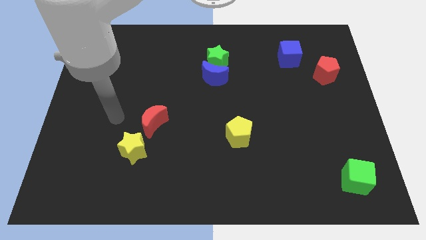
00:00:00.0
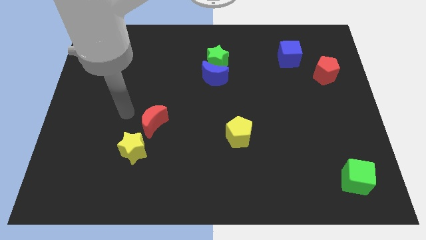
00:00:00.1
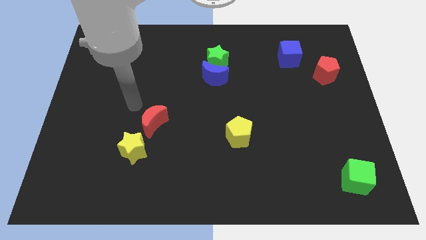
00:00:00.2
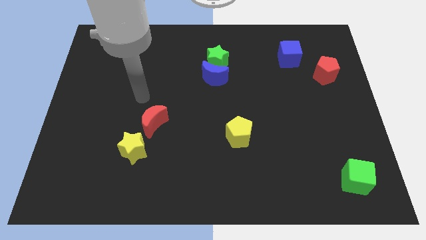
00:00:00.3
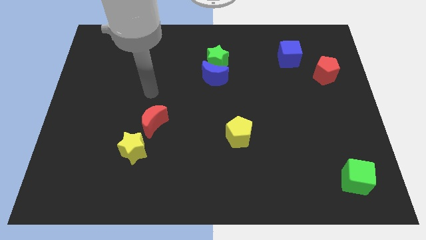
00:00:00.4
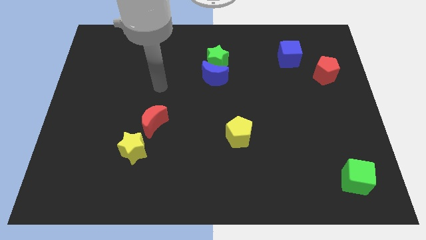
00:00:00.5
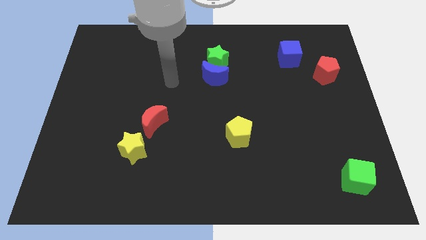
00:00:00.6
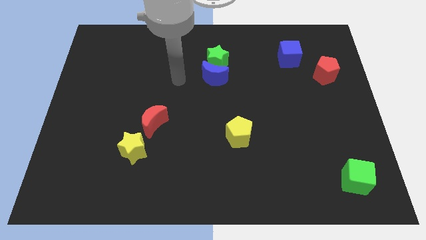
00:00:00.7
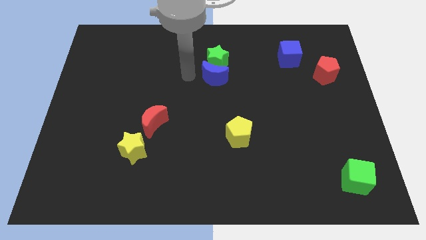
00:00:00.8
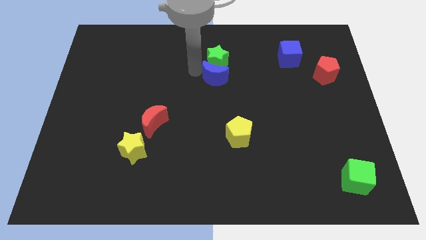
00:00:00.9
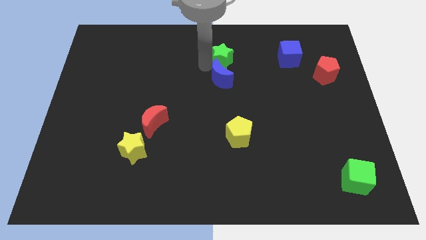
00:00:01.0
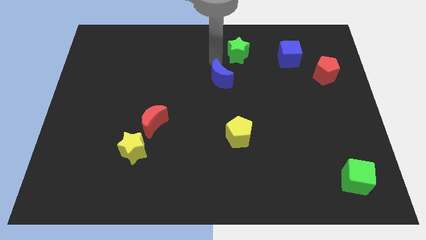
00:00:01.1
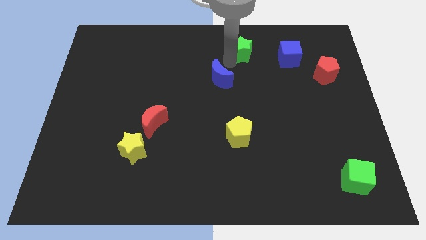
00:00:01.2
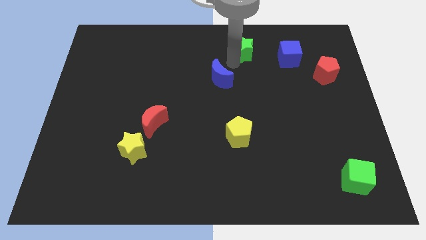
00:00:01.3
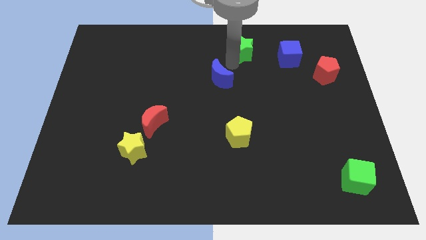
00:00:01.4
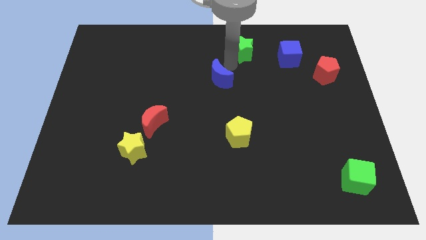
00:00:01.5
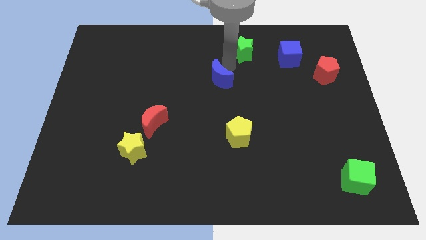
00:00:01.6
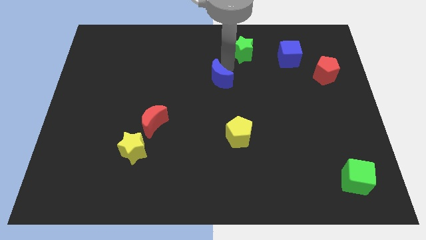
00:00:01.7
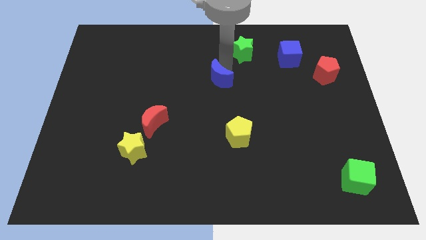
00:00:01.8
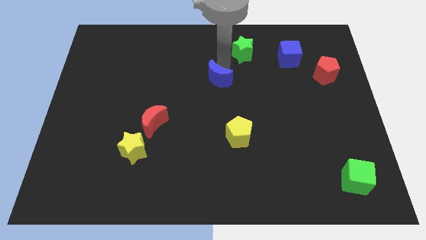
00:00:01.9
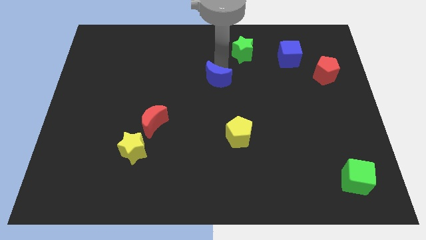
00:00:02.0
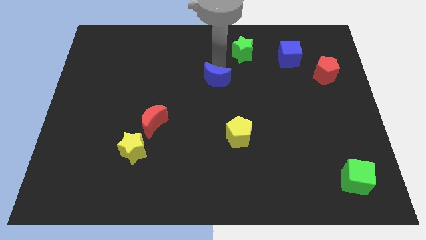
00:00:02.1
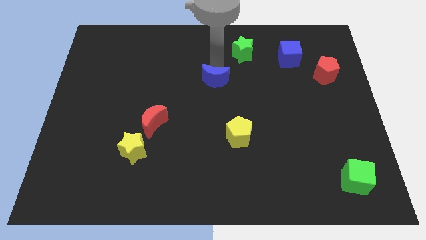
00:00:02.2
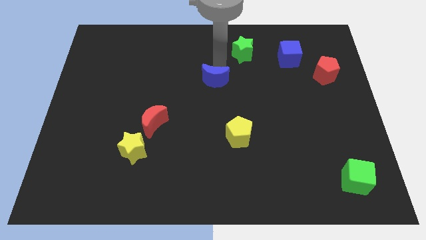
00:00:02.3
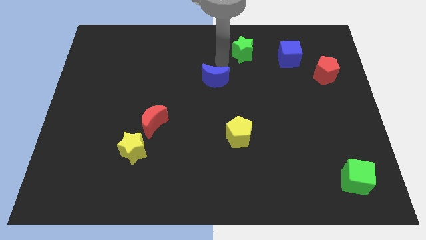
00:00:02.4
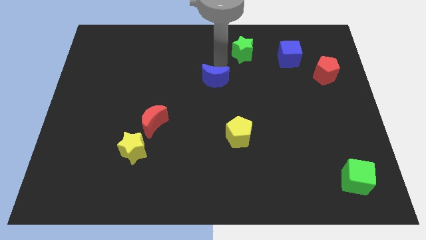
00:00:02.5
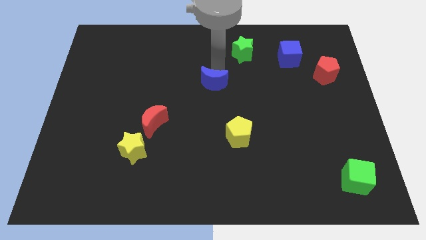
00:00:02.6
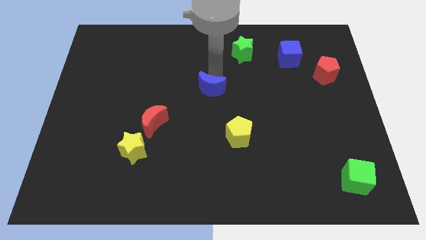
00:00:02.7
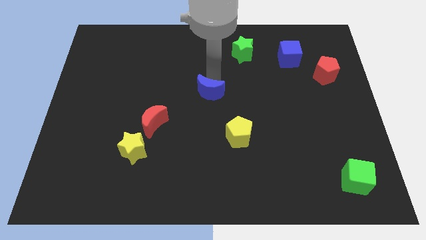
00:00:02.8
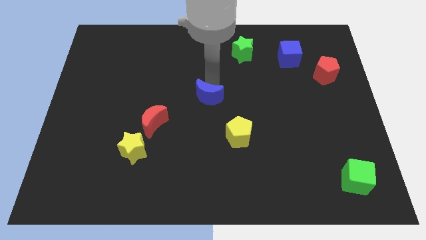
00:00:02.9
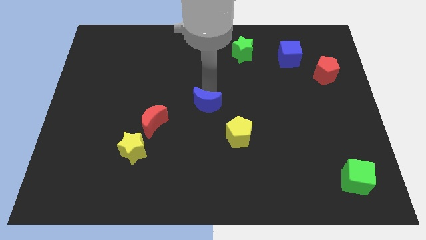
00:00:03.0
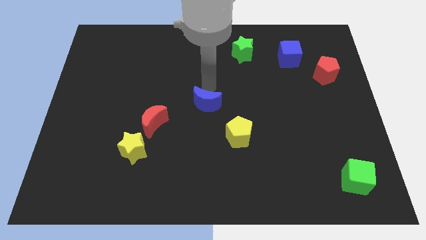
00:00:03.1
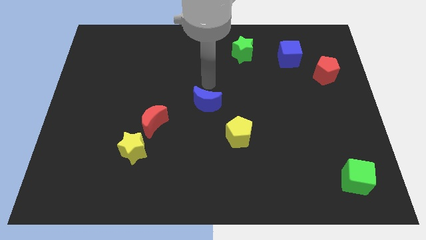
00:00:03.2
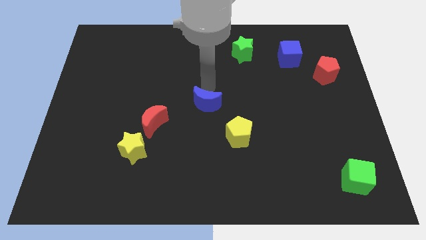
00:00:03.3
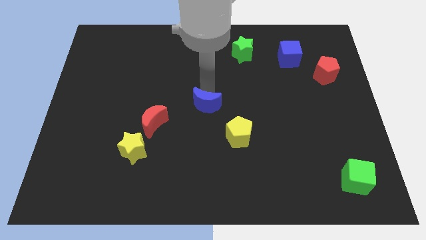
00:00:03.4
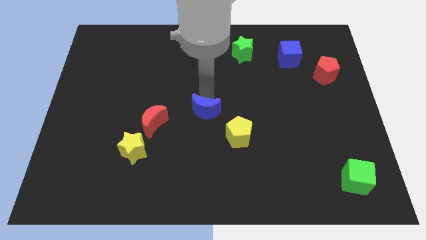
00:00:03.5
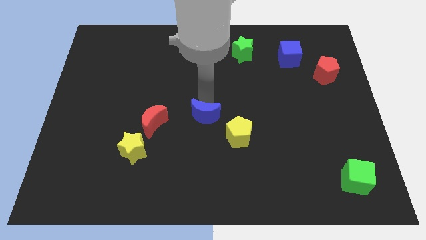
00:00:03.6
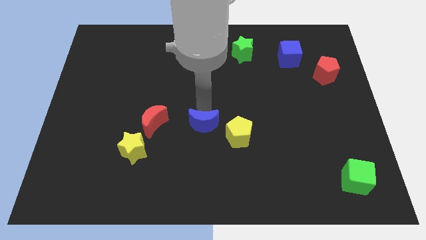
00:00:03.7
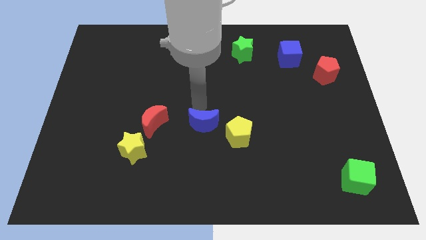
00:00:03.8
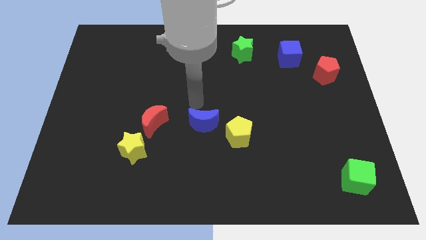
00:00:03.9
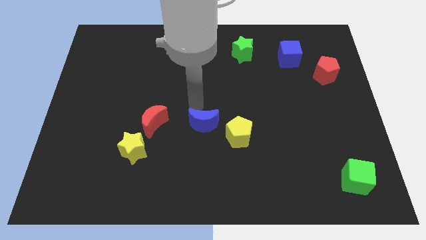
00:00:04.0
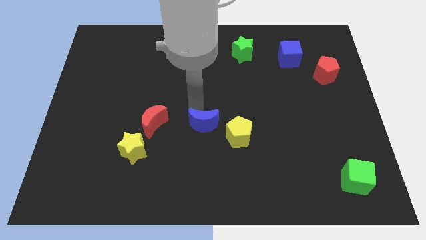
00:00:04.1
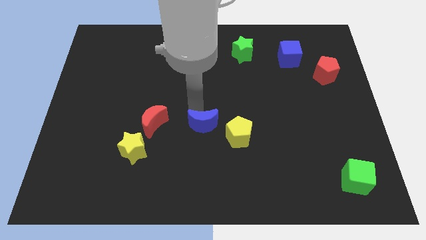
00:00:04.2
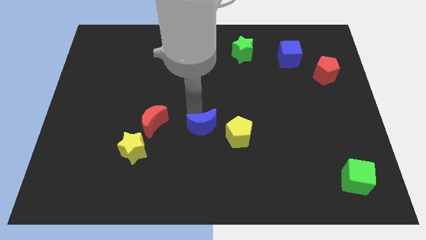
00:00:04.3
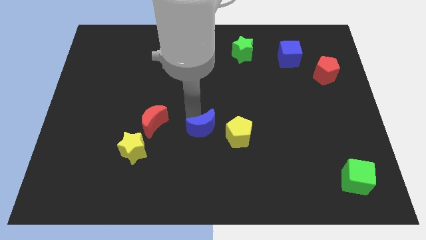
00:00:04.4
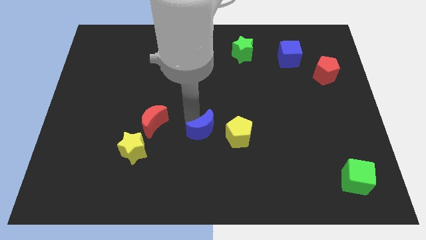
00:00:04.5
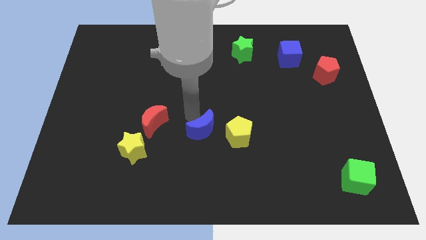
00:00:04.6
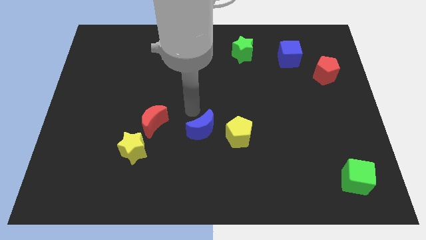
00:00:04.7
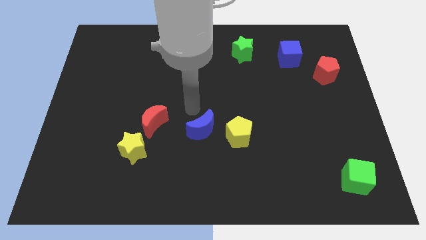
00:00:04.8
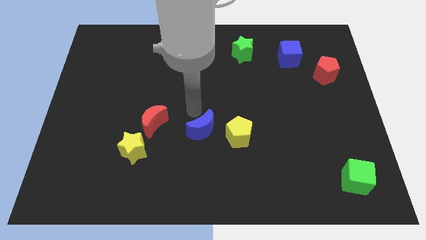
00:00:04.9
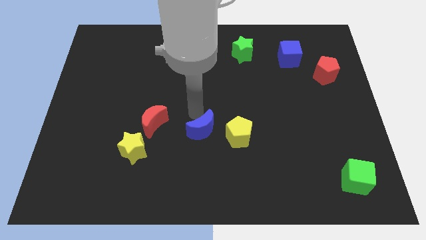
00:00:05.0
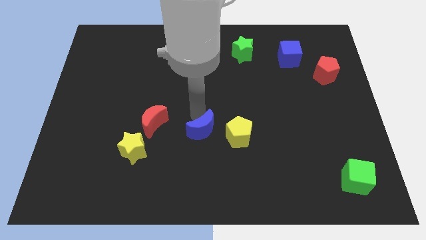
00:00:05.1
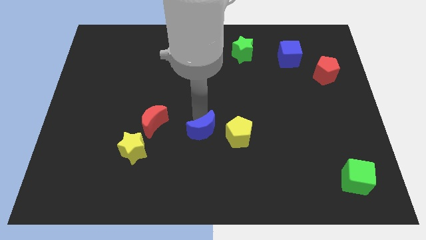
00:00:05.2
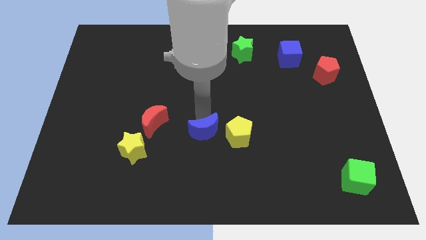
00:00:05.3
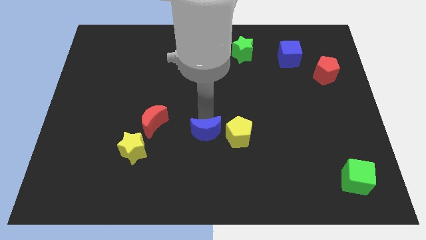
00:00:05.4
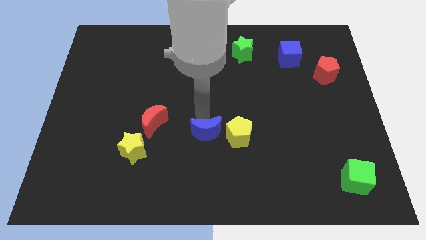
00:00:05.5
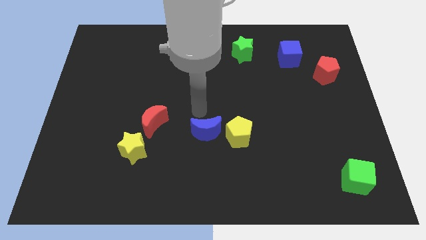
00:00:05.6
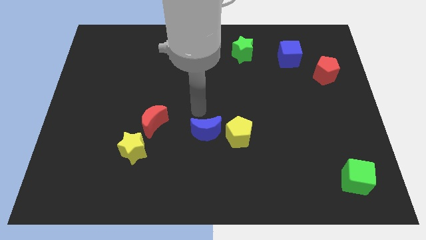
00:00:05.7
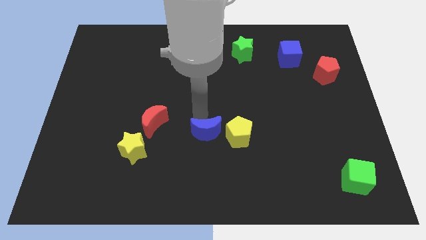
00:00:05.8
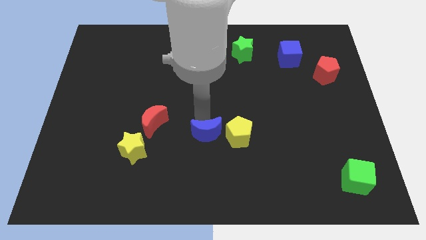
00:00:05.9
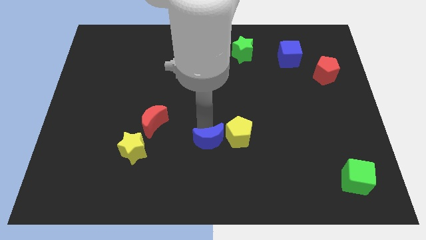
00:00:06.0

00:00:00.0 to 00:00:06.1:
move the blue moon diagonally down and to the left of the yellow pentagon

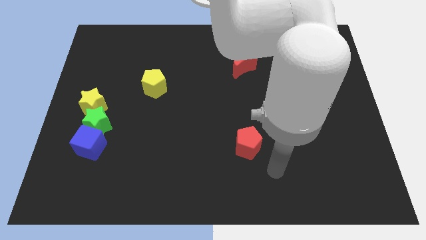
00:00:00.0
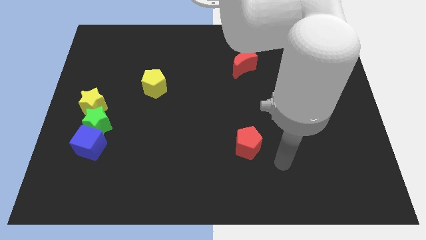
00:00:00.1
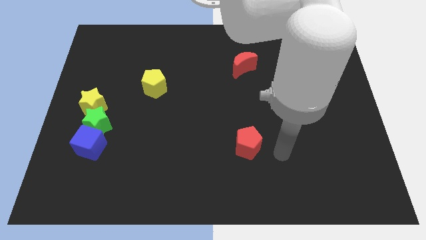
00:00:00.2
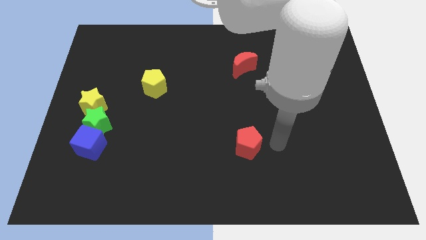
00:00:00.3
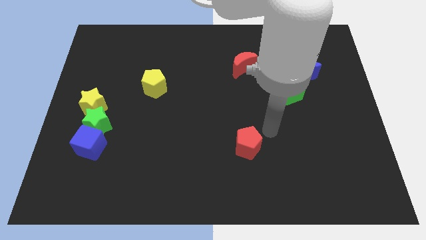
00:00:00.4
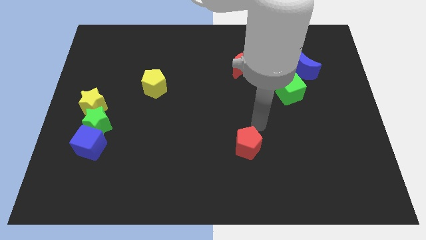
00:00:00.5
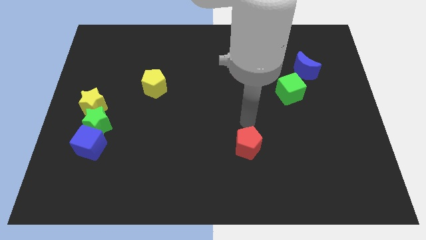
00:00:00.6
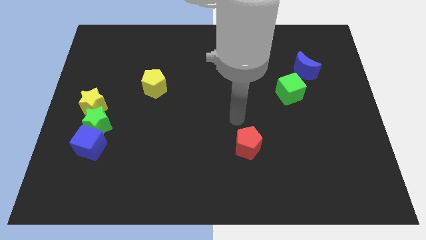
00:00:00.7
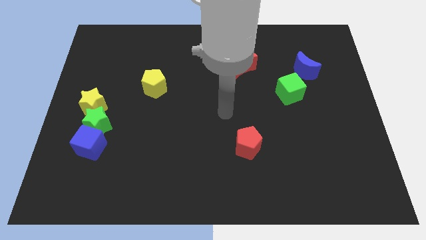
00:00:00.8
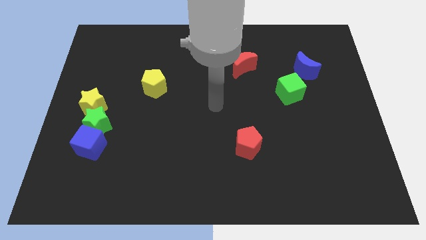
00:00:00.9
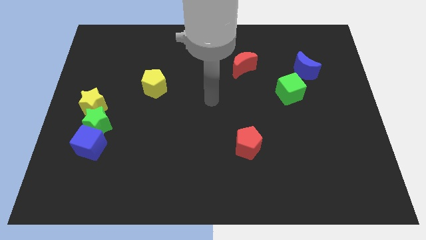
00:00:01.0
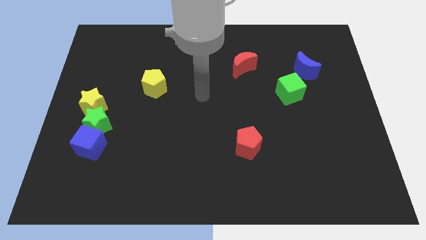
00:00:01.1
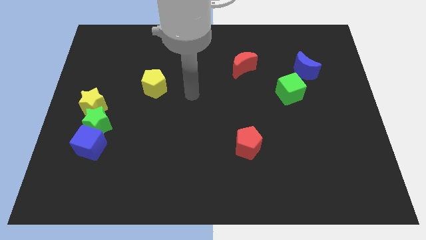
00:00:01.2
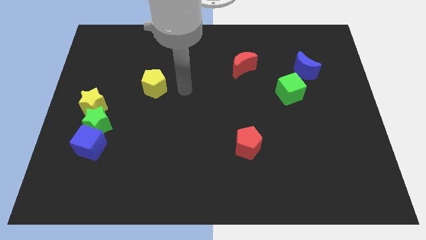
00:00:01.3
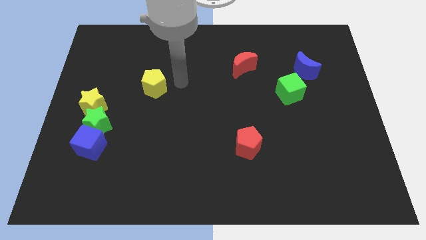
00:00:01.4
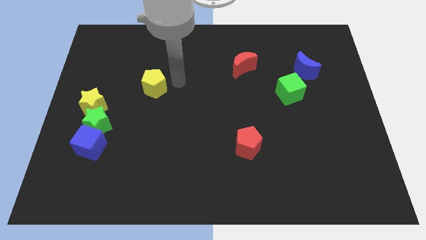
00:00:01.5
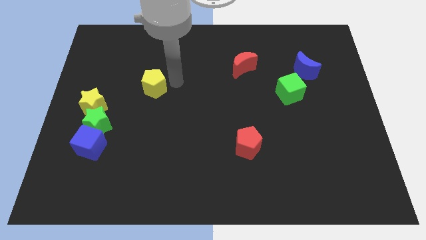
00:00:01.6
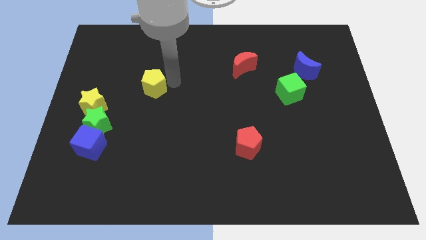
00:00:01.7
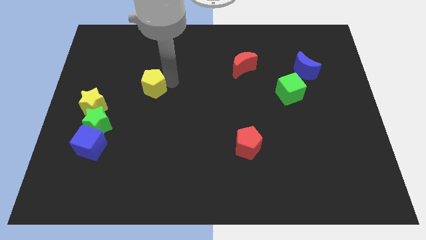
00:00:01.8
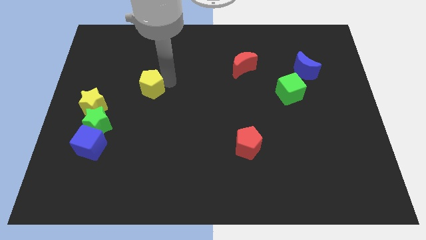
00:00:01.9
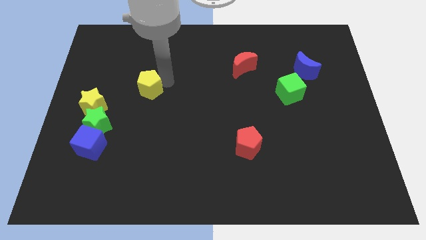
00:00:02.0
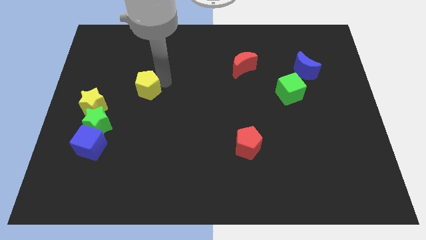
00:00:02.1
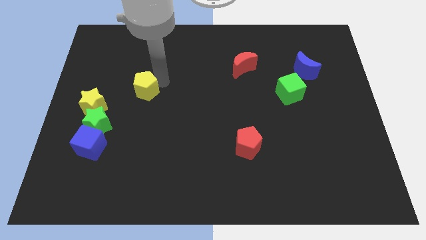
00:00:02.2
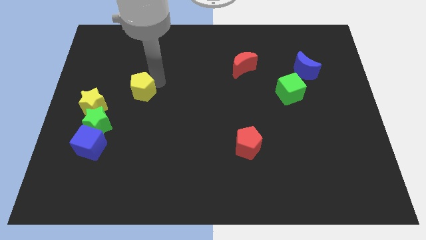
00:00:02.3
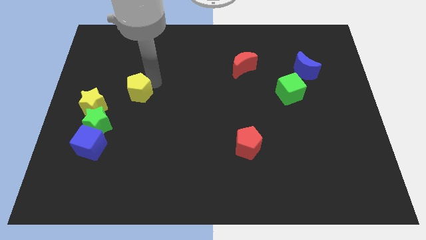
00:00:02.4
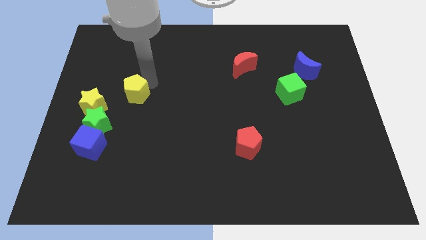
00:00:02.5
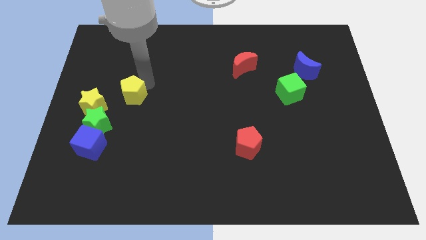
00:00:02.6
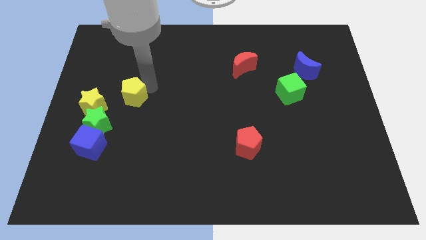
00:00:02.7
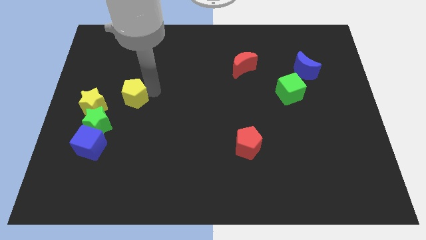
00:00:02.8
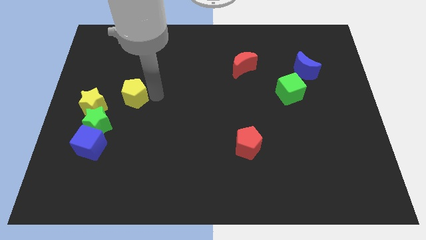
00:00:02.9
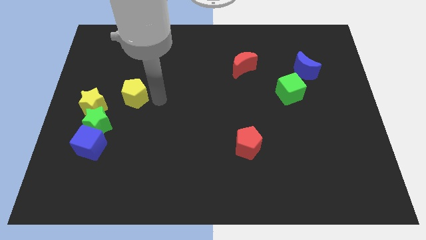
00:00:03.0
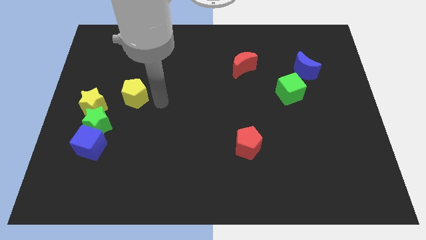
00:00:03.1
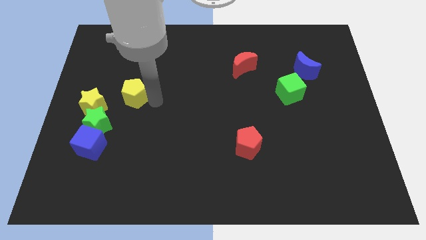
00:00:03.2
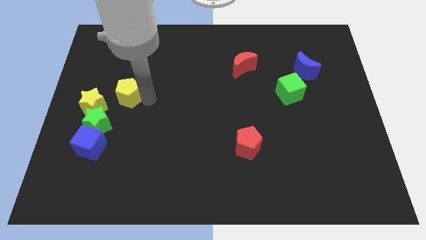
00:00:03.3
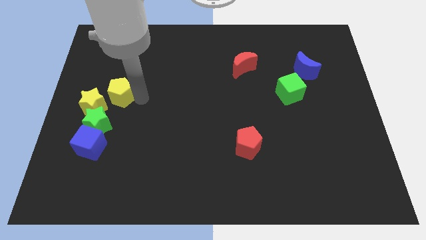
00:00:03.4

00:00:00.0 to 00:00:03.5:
move the yellow pentagon to the top side of the green star
